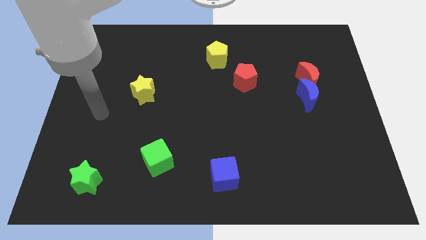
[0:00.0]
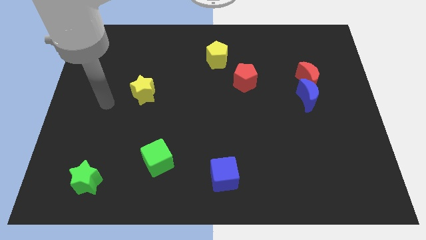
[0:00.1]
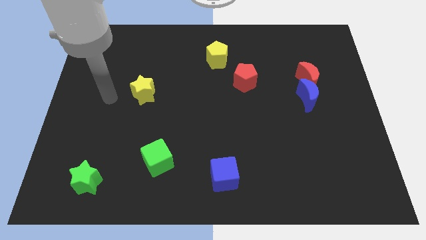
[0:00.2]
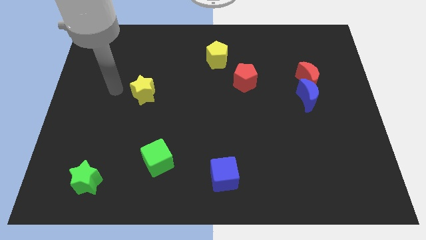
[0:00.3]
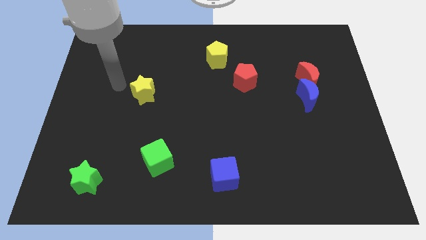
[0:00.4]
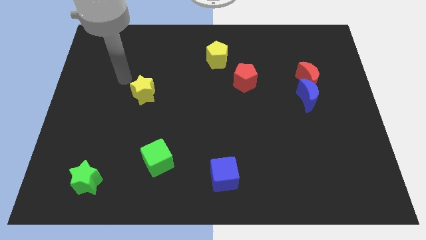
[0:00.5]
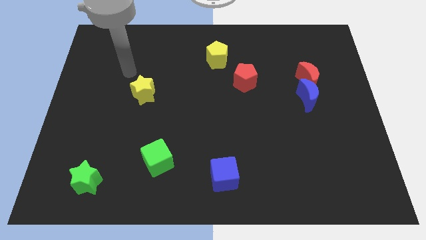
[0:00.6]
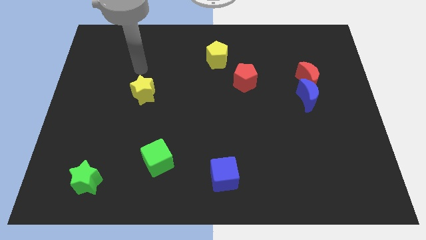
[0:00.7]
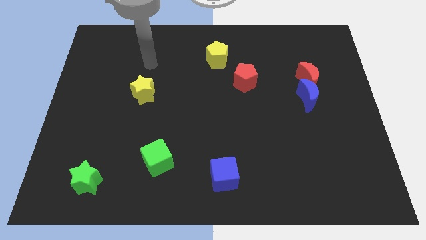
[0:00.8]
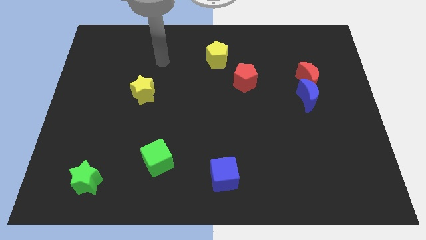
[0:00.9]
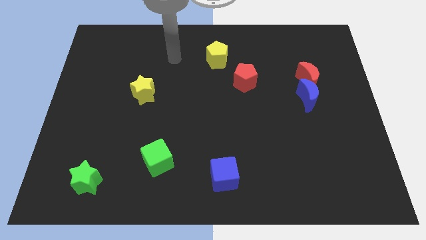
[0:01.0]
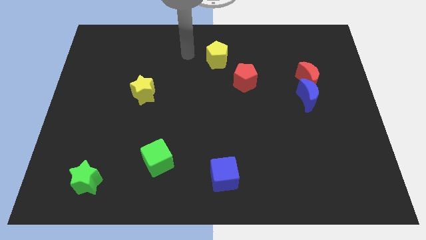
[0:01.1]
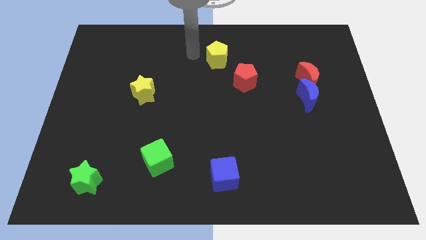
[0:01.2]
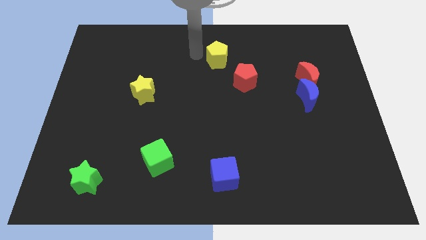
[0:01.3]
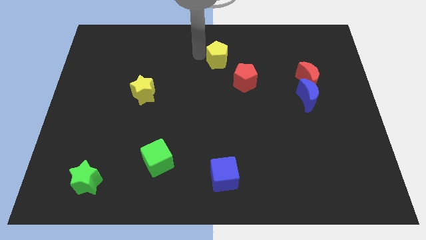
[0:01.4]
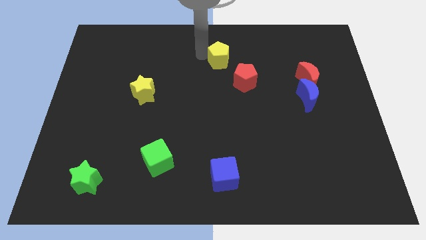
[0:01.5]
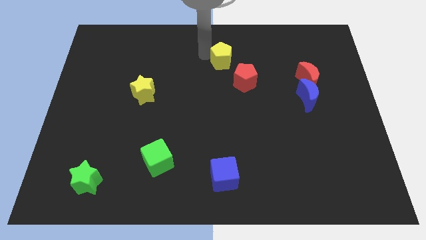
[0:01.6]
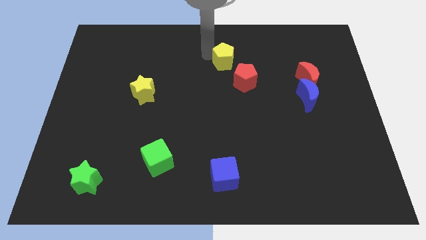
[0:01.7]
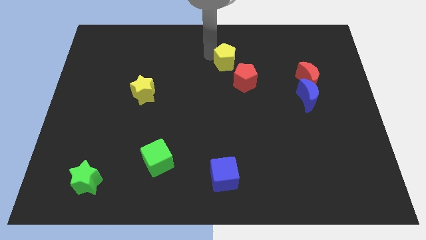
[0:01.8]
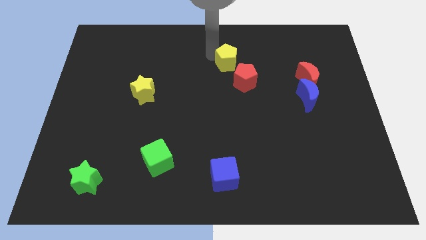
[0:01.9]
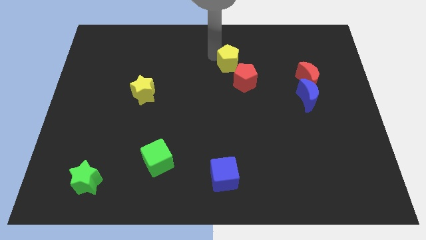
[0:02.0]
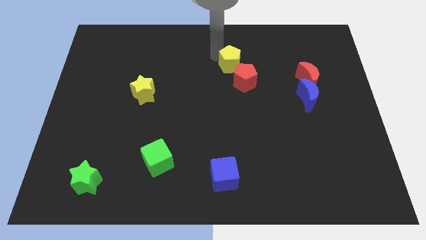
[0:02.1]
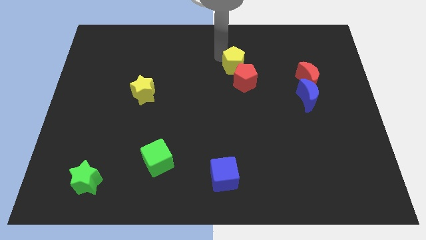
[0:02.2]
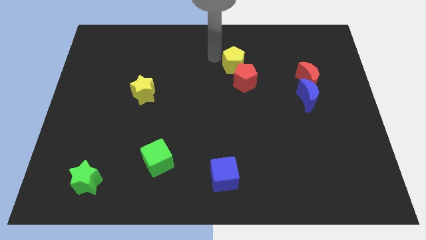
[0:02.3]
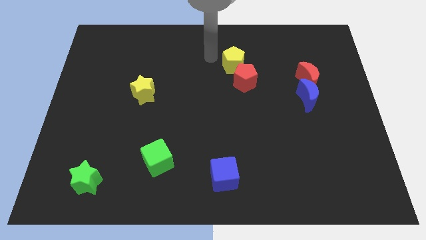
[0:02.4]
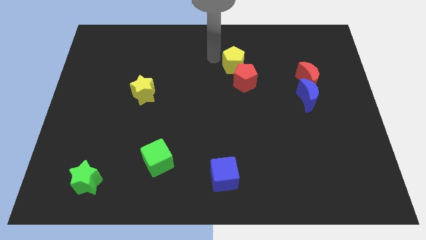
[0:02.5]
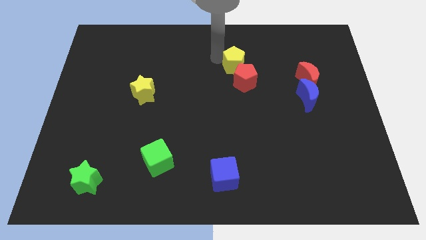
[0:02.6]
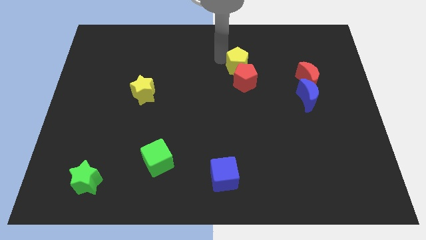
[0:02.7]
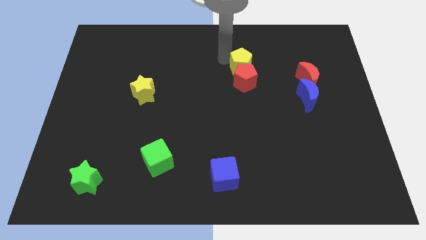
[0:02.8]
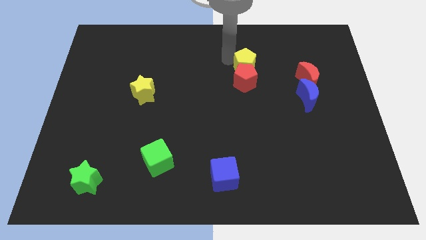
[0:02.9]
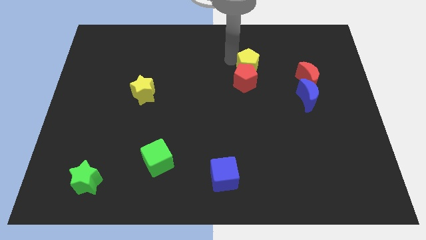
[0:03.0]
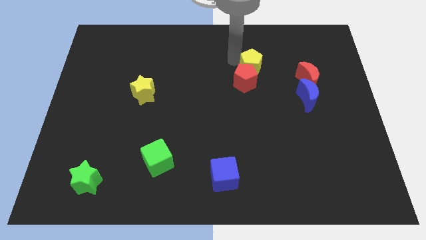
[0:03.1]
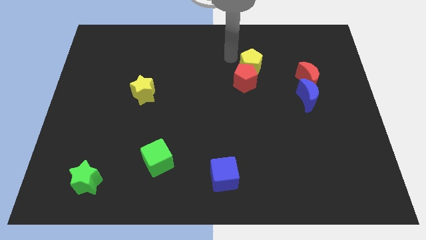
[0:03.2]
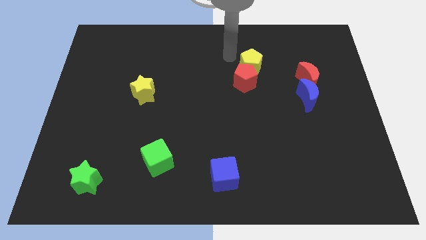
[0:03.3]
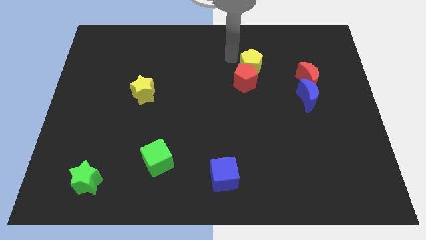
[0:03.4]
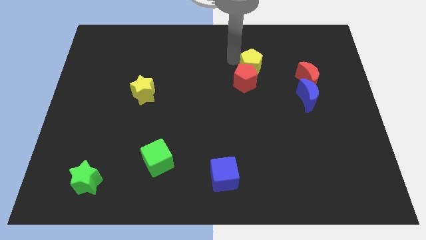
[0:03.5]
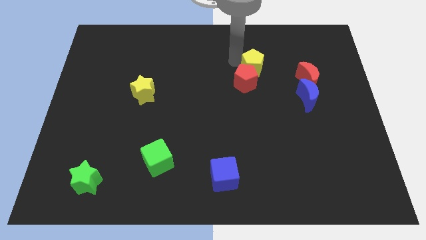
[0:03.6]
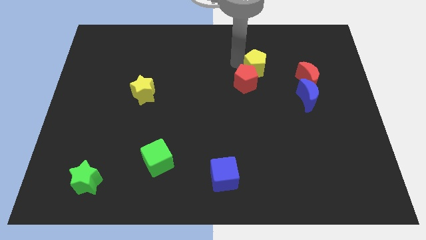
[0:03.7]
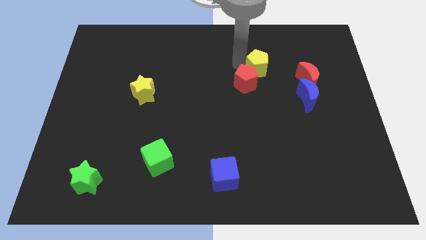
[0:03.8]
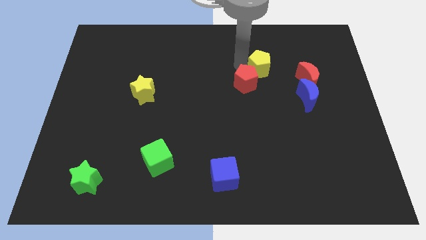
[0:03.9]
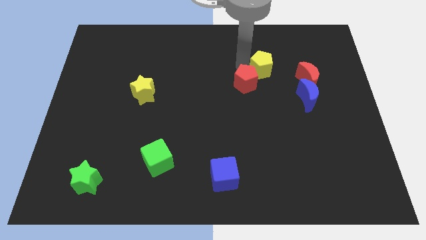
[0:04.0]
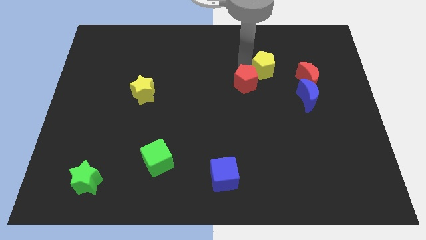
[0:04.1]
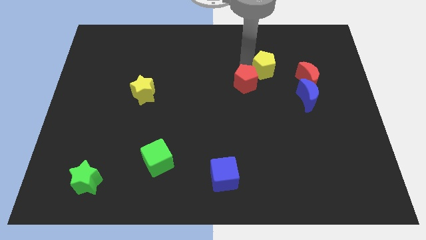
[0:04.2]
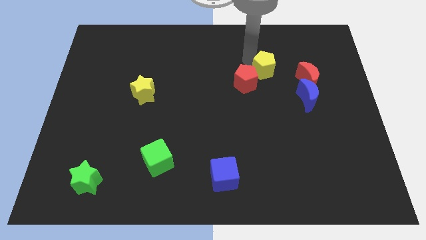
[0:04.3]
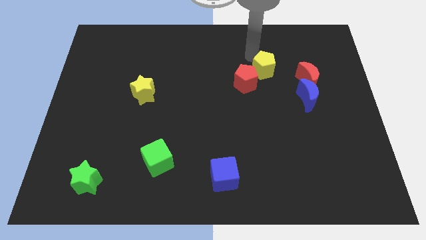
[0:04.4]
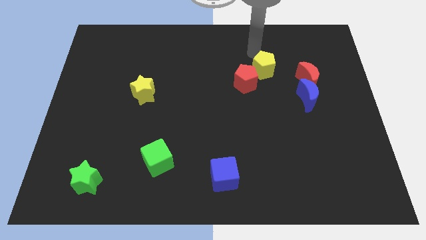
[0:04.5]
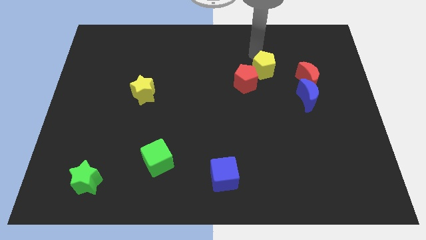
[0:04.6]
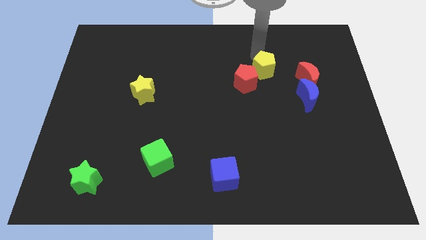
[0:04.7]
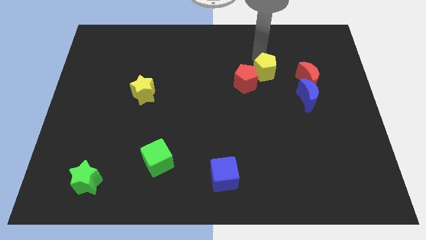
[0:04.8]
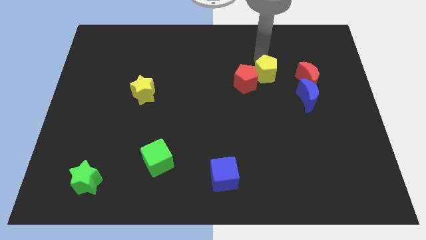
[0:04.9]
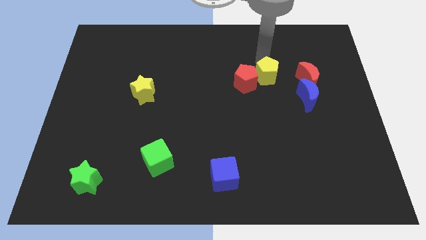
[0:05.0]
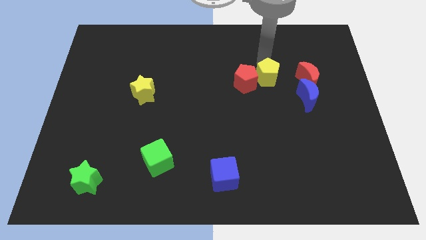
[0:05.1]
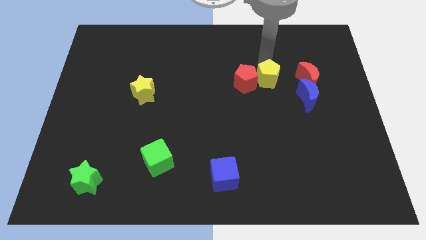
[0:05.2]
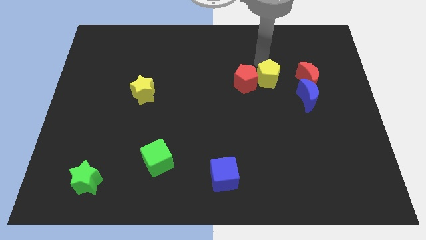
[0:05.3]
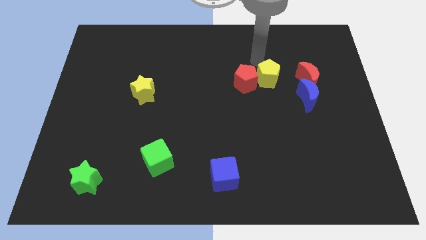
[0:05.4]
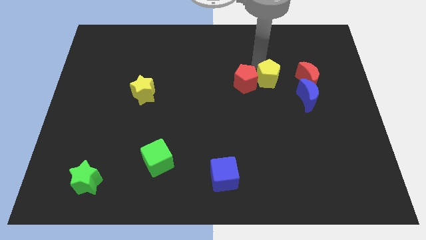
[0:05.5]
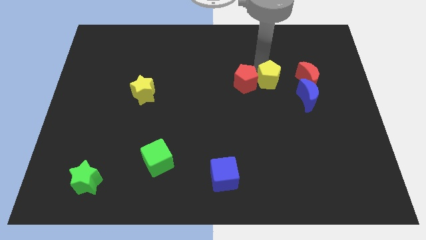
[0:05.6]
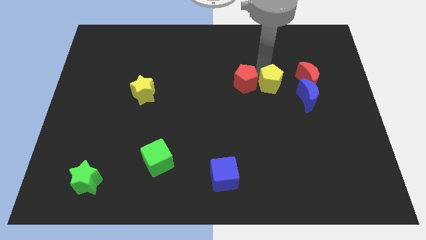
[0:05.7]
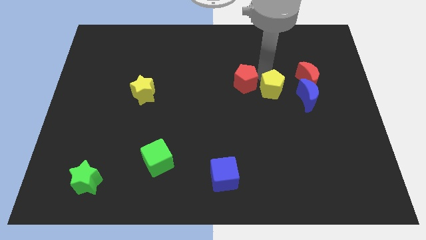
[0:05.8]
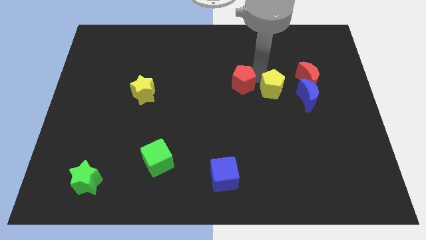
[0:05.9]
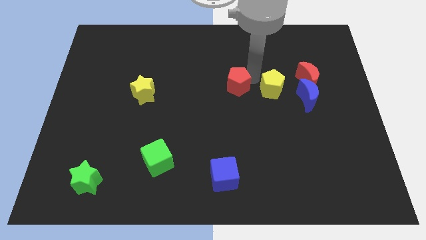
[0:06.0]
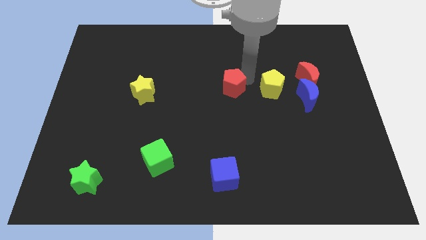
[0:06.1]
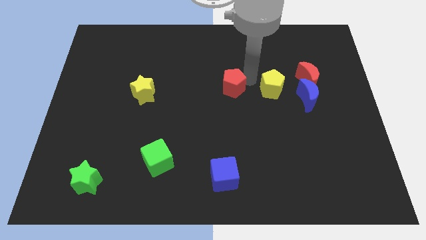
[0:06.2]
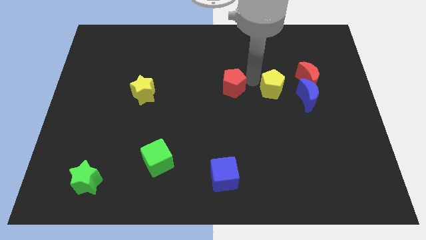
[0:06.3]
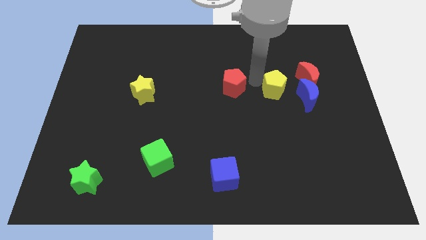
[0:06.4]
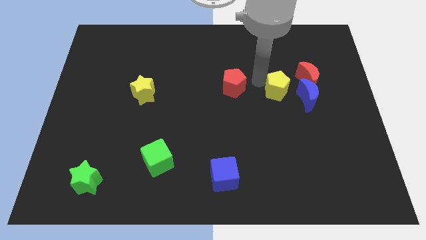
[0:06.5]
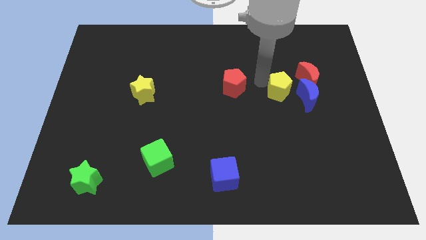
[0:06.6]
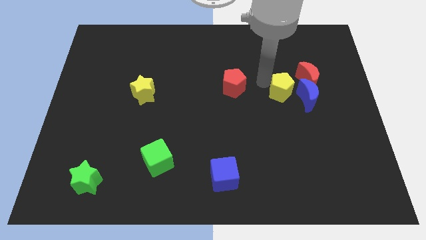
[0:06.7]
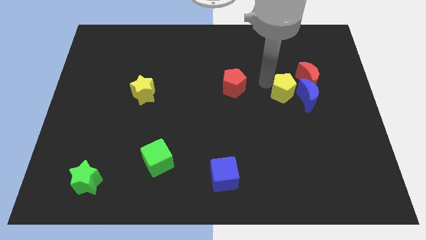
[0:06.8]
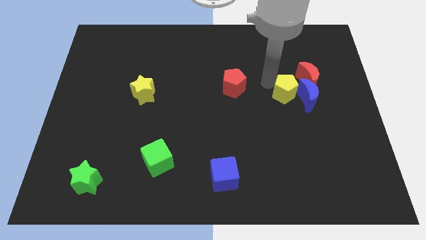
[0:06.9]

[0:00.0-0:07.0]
push the yellow pentagon towards the blue moon
